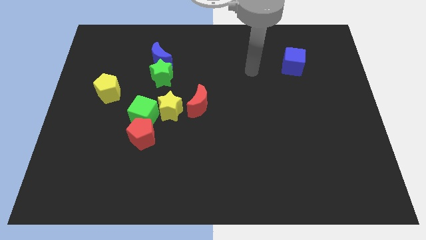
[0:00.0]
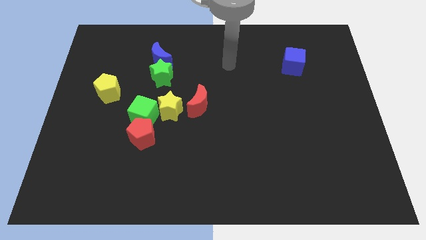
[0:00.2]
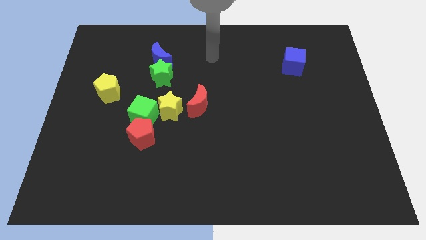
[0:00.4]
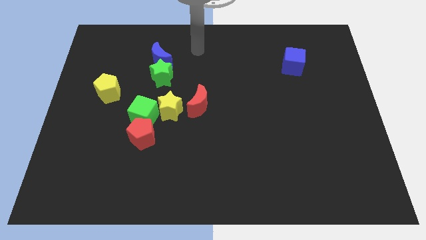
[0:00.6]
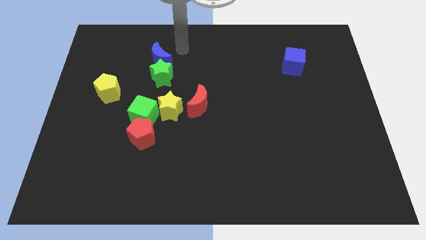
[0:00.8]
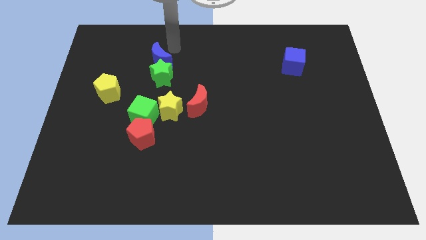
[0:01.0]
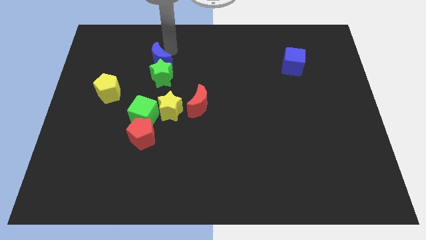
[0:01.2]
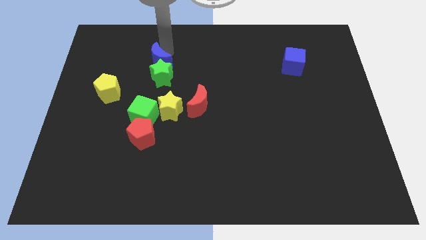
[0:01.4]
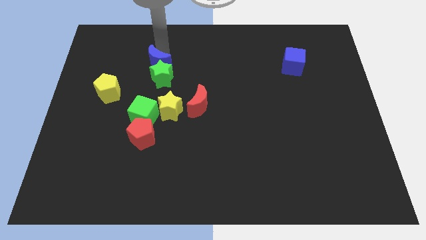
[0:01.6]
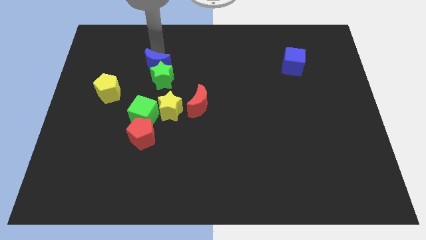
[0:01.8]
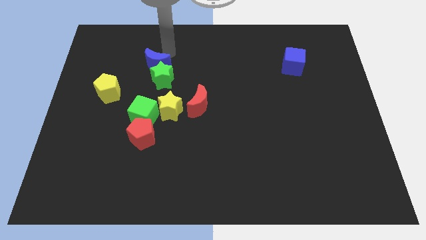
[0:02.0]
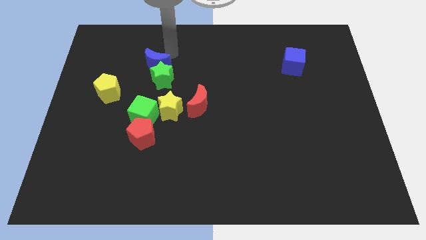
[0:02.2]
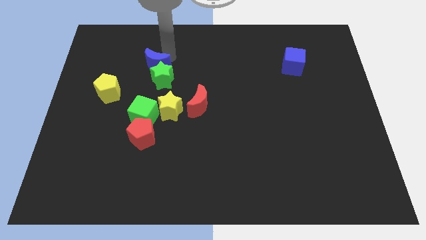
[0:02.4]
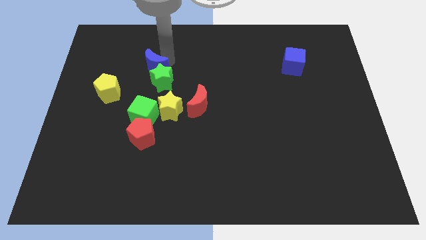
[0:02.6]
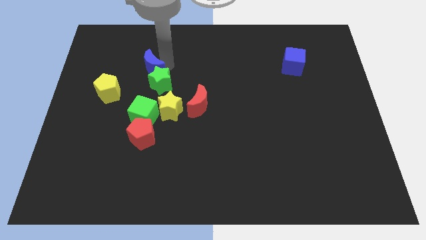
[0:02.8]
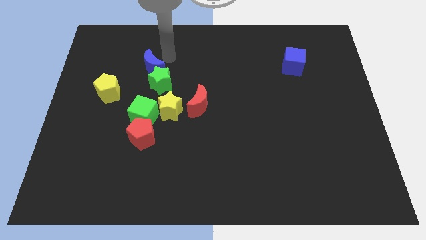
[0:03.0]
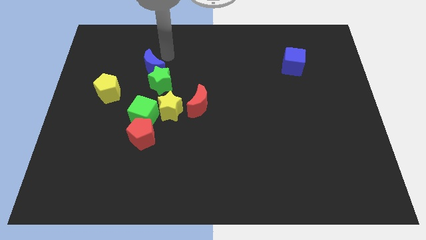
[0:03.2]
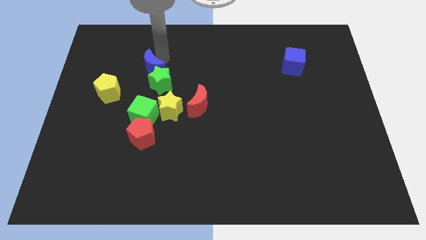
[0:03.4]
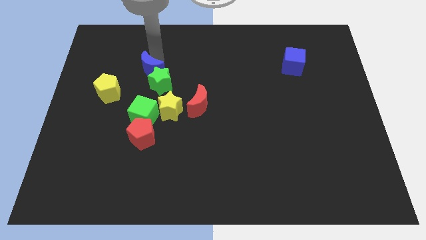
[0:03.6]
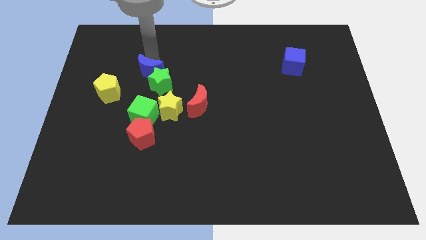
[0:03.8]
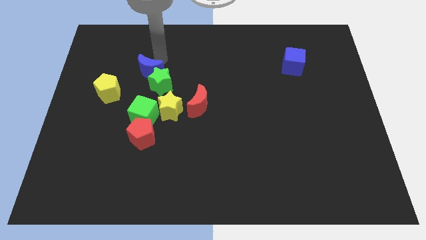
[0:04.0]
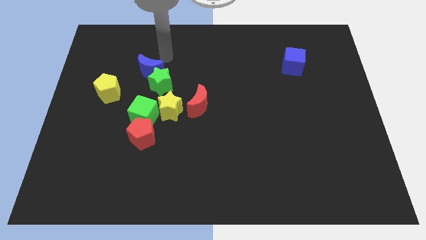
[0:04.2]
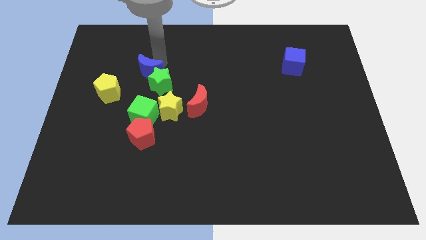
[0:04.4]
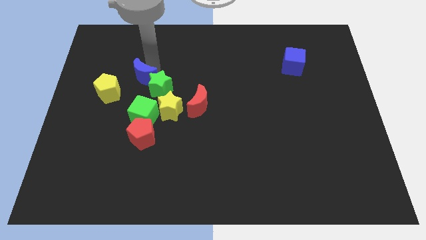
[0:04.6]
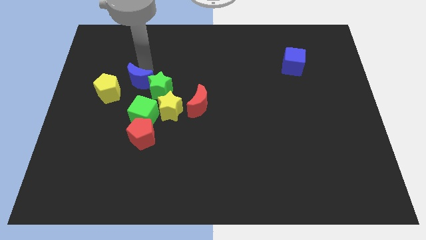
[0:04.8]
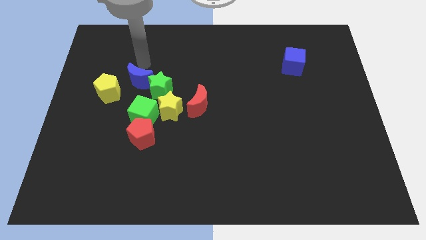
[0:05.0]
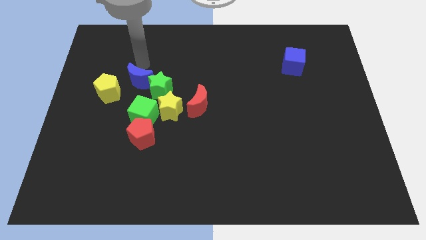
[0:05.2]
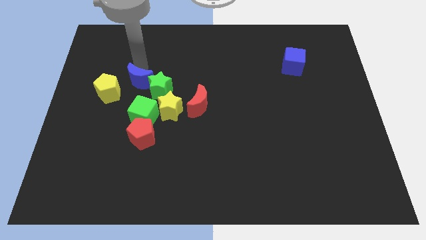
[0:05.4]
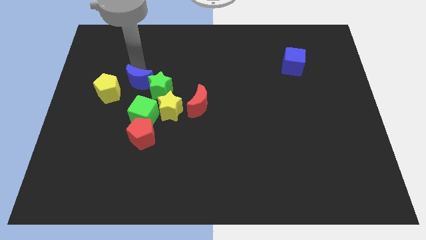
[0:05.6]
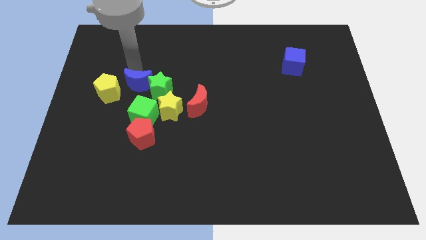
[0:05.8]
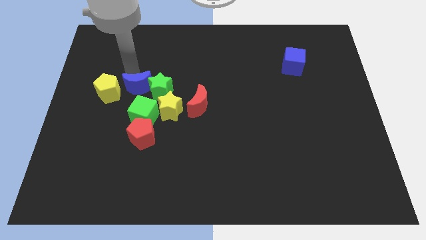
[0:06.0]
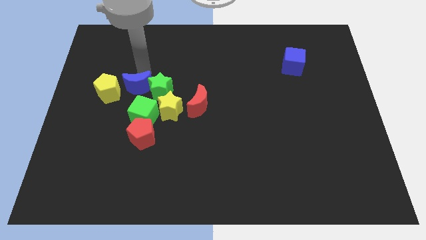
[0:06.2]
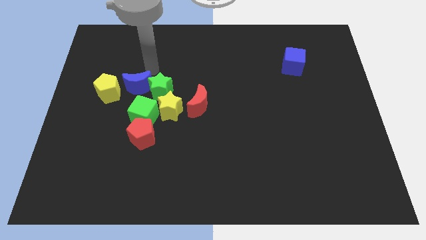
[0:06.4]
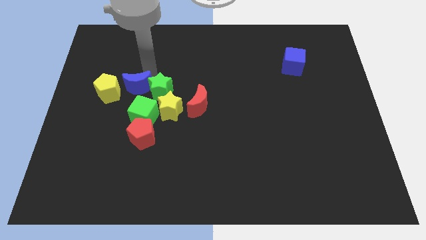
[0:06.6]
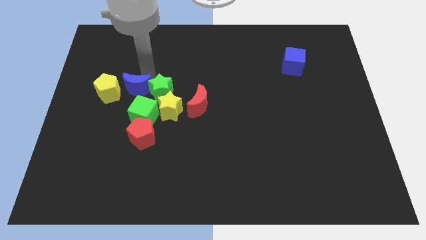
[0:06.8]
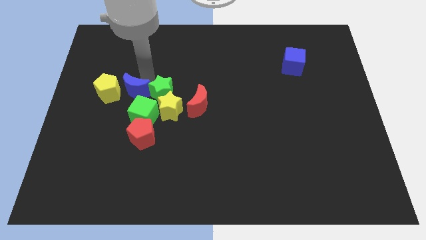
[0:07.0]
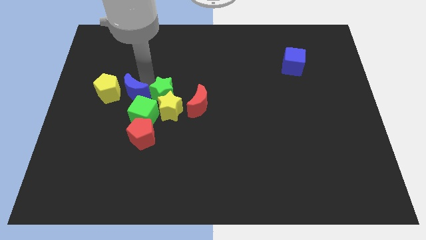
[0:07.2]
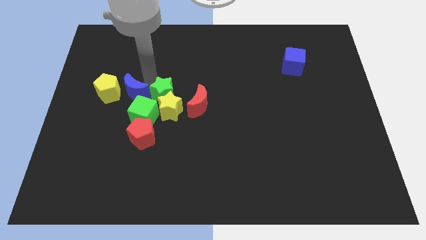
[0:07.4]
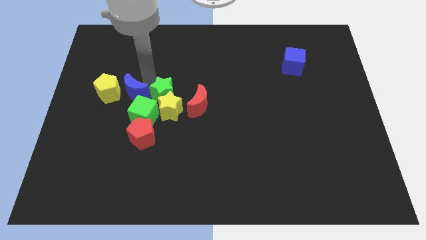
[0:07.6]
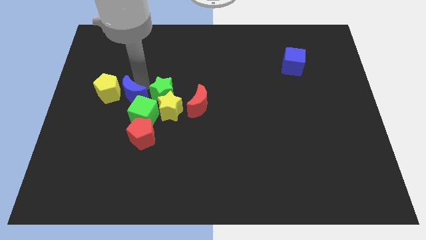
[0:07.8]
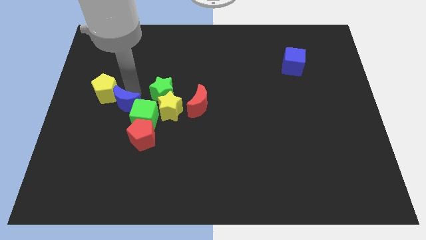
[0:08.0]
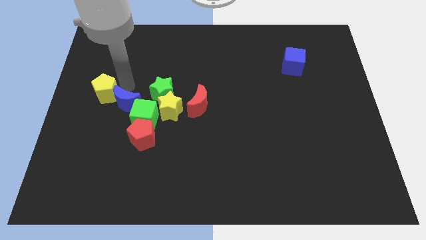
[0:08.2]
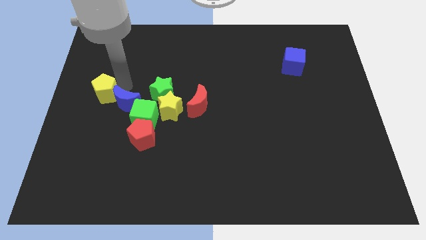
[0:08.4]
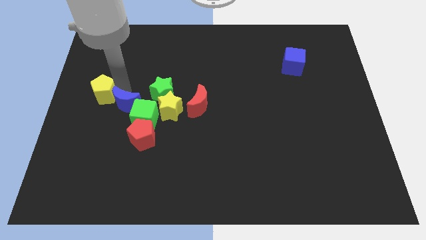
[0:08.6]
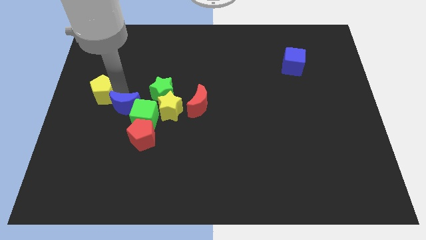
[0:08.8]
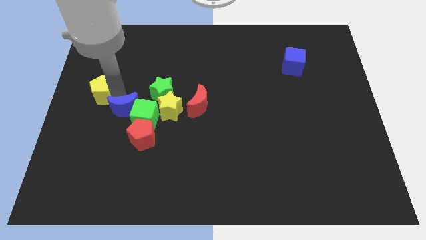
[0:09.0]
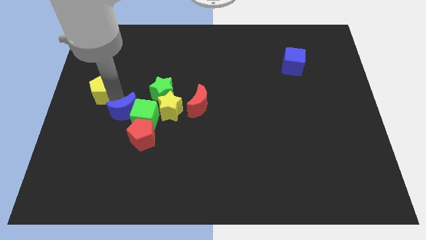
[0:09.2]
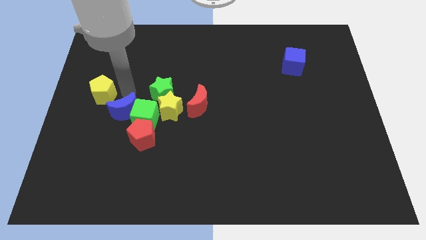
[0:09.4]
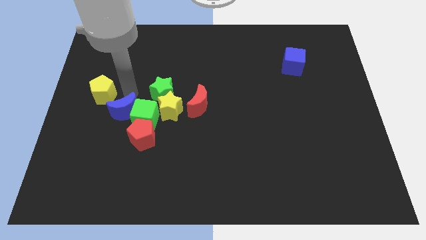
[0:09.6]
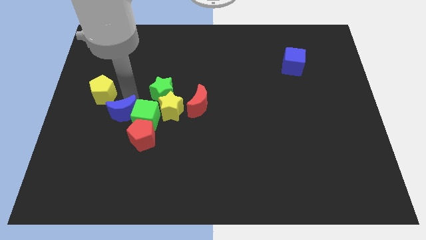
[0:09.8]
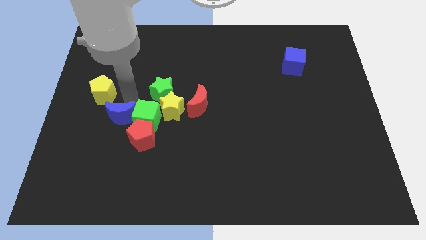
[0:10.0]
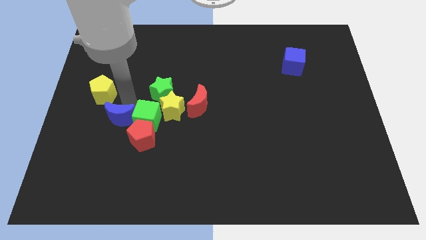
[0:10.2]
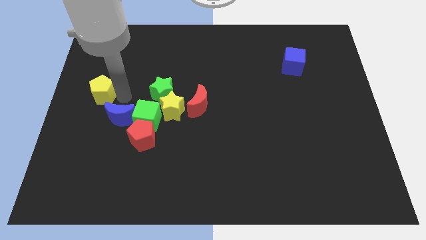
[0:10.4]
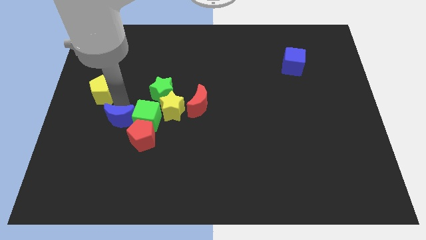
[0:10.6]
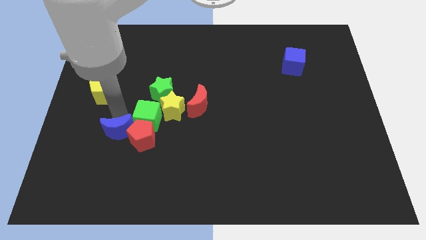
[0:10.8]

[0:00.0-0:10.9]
slide the blue moon downwards

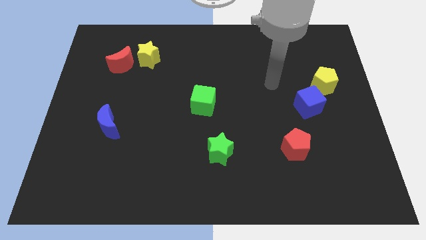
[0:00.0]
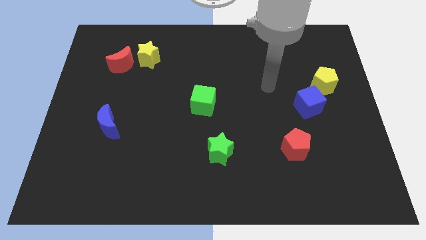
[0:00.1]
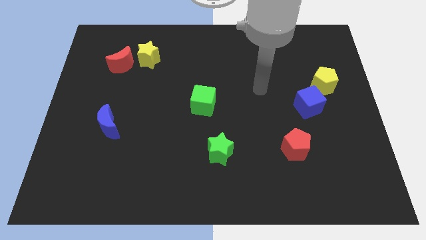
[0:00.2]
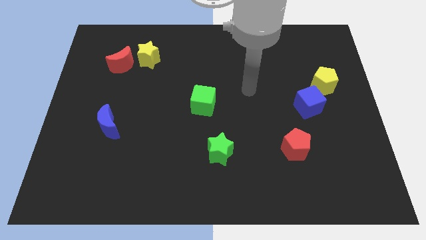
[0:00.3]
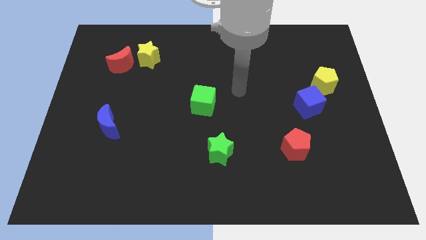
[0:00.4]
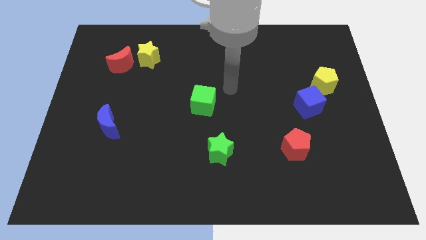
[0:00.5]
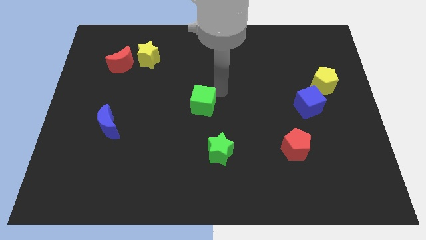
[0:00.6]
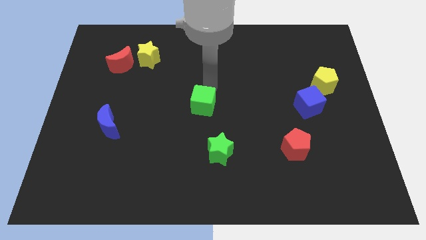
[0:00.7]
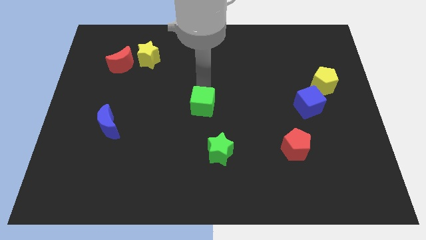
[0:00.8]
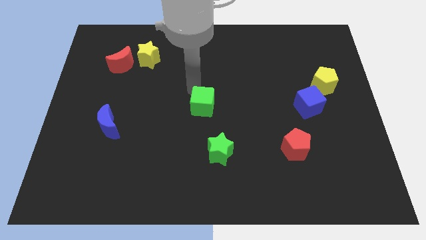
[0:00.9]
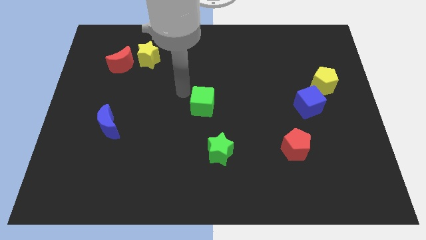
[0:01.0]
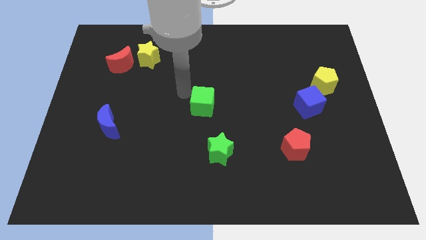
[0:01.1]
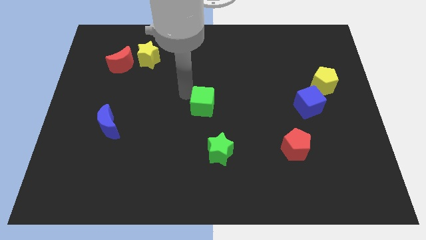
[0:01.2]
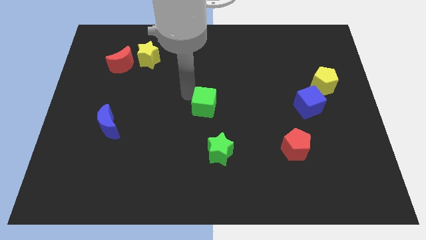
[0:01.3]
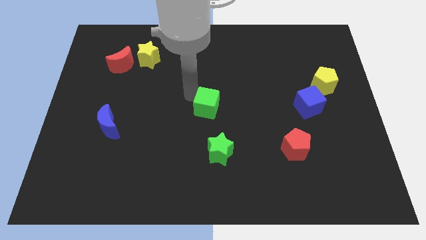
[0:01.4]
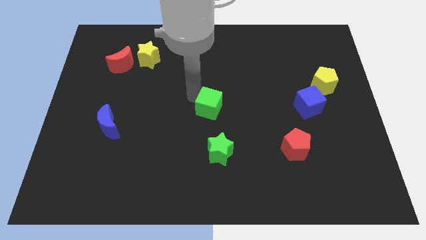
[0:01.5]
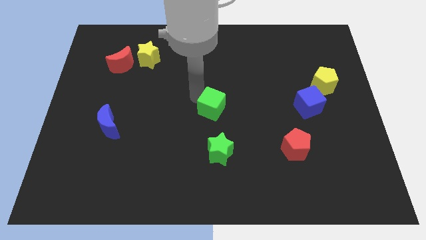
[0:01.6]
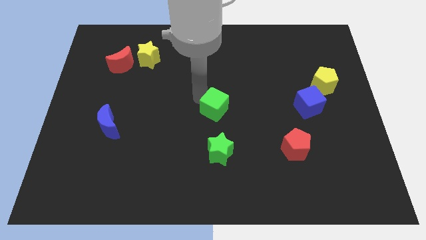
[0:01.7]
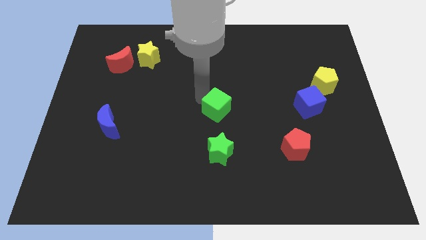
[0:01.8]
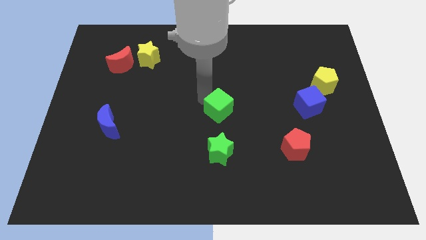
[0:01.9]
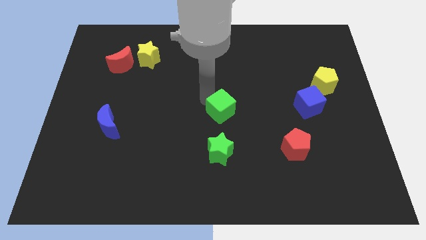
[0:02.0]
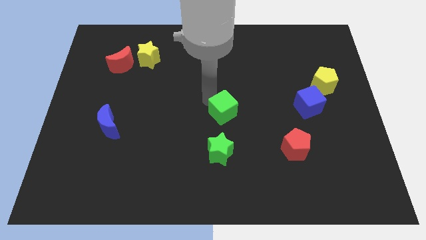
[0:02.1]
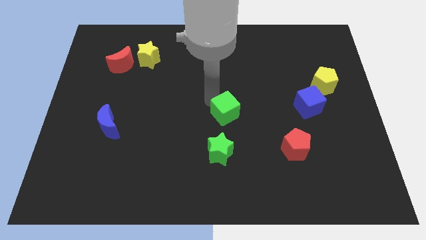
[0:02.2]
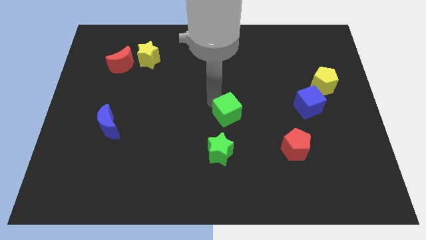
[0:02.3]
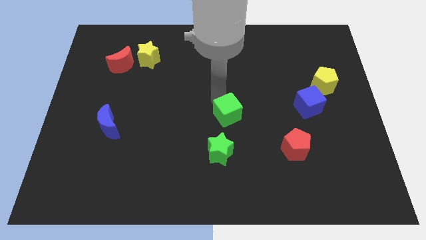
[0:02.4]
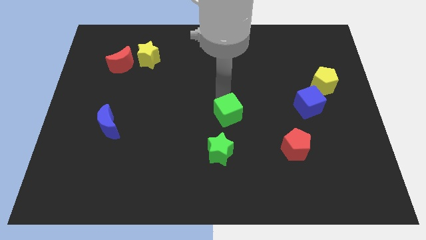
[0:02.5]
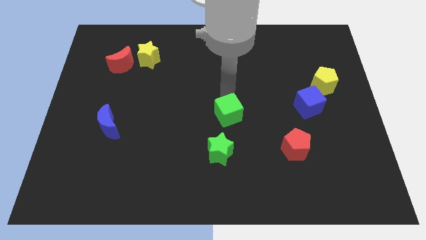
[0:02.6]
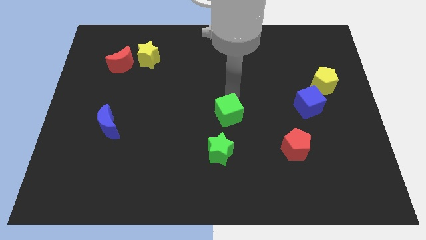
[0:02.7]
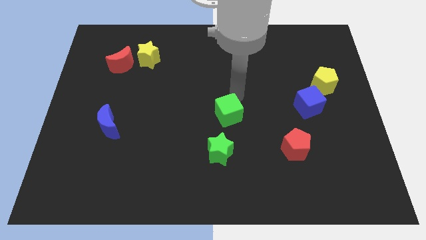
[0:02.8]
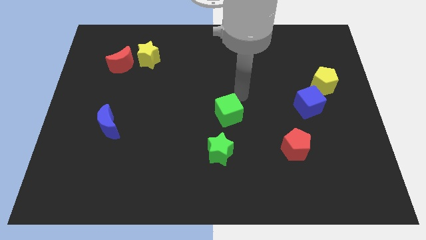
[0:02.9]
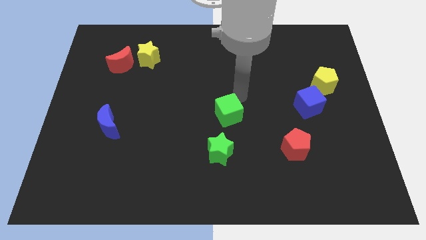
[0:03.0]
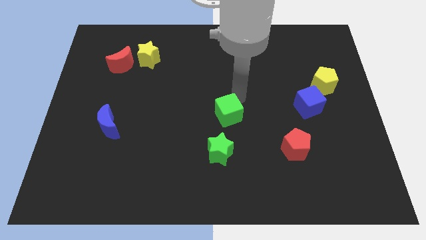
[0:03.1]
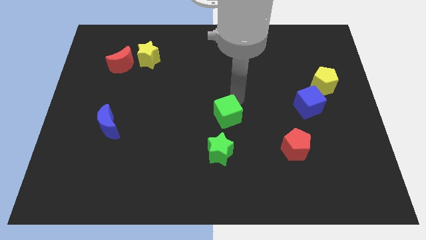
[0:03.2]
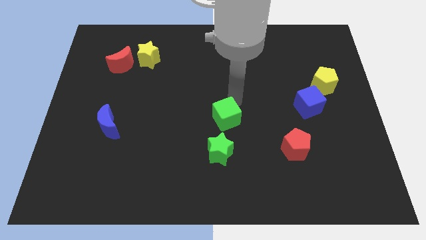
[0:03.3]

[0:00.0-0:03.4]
slightly slide the green cube down and right diagonally
